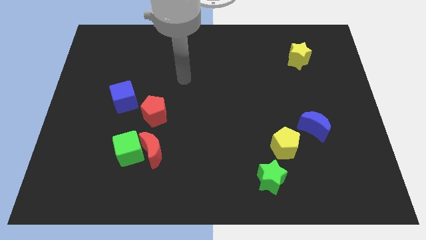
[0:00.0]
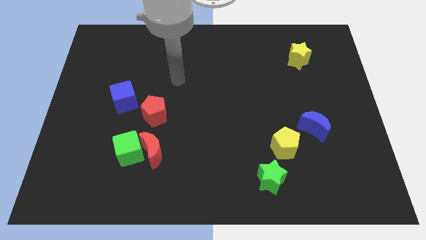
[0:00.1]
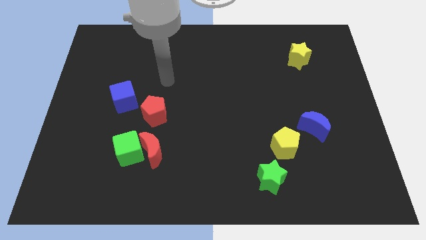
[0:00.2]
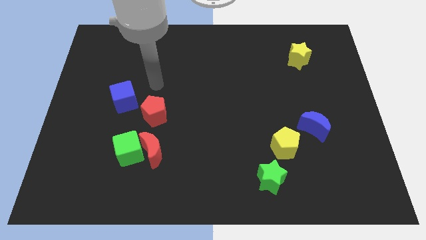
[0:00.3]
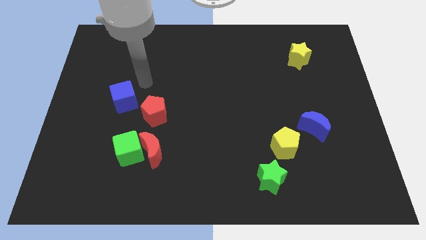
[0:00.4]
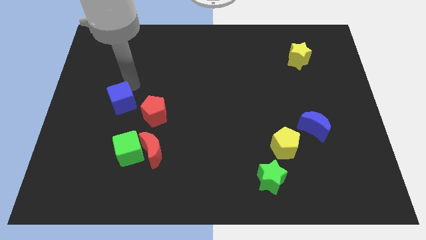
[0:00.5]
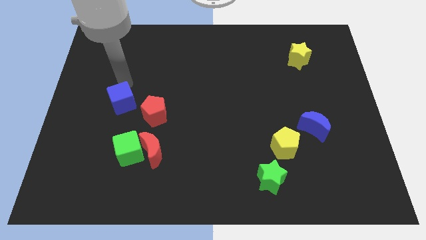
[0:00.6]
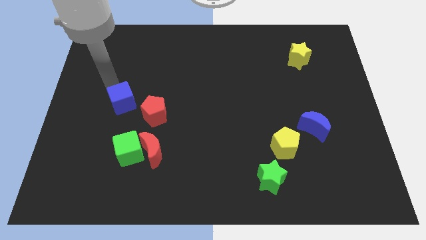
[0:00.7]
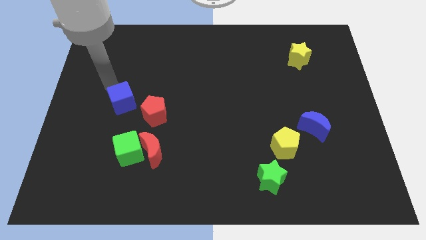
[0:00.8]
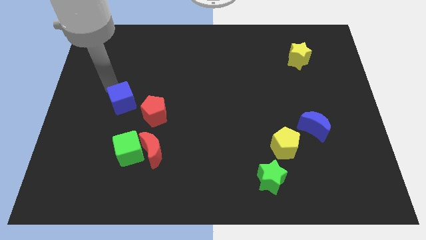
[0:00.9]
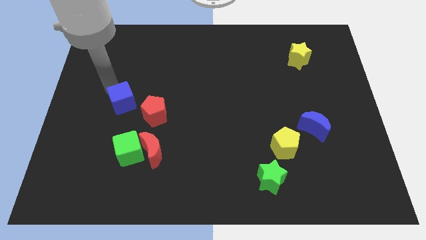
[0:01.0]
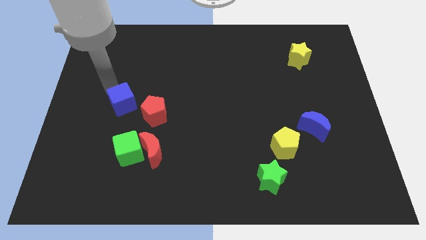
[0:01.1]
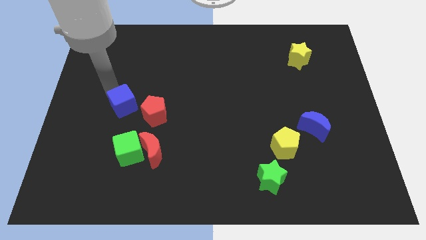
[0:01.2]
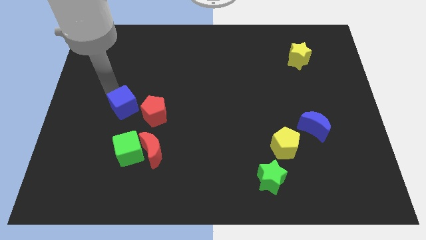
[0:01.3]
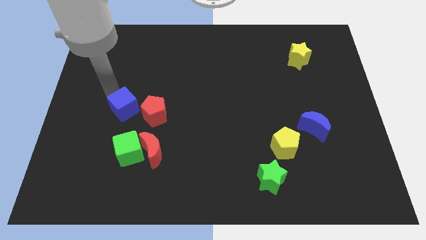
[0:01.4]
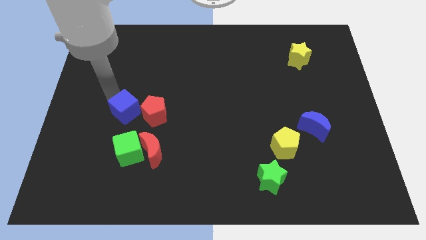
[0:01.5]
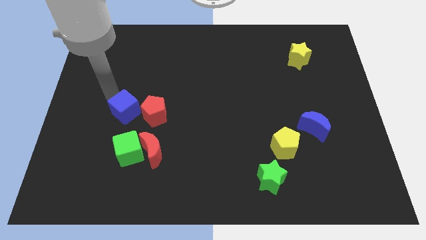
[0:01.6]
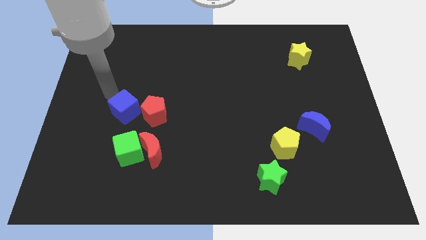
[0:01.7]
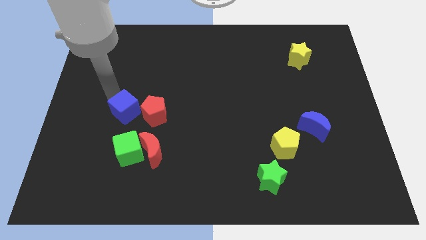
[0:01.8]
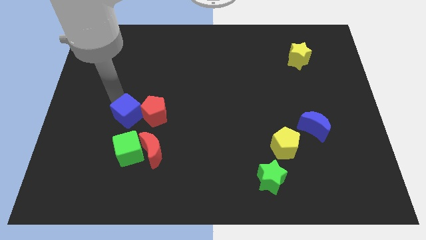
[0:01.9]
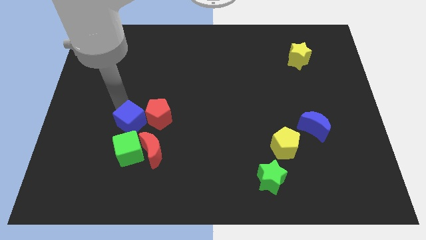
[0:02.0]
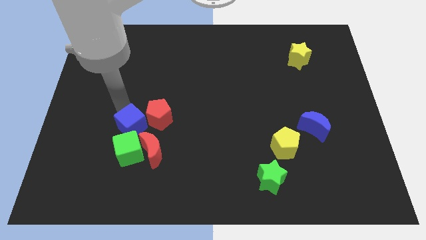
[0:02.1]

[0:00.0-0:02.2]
slightly push the blue cube downwards and to the right

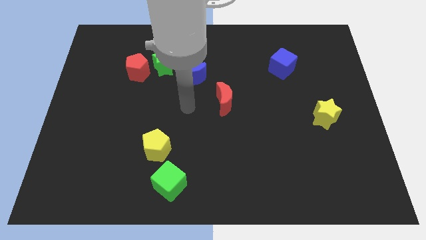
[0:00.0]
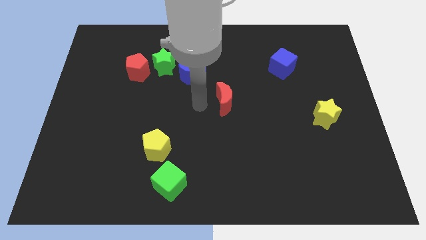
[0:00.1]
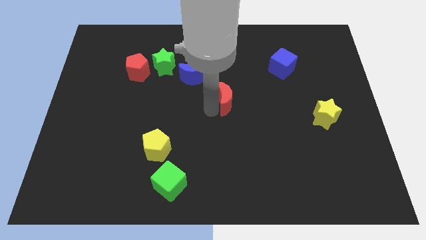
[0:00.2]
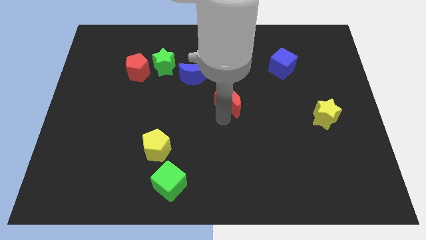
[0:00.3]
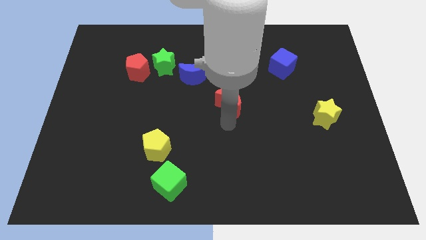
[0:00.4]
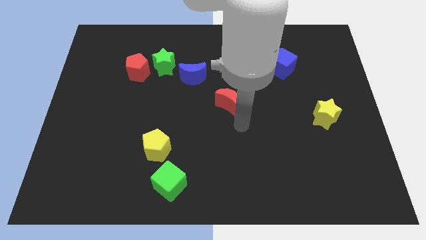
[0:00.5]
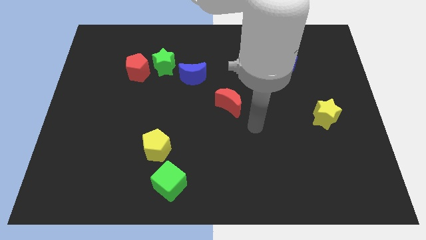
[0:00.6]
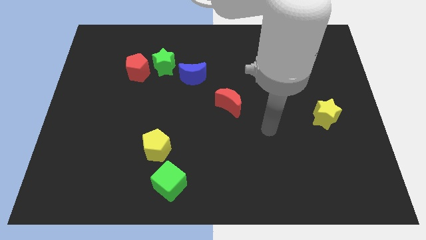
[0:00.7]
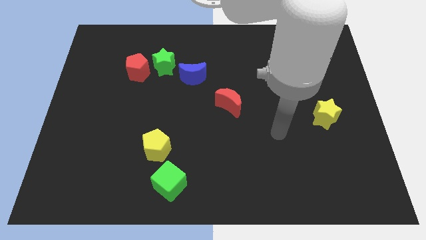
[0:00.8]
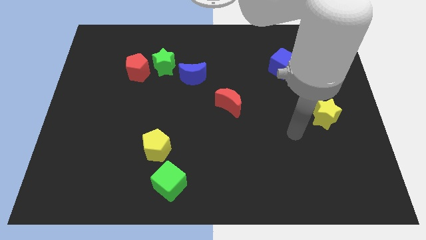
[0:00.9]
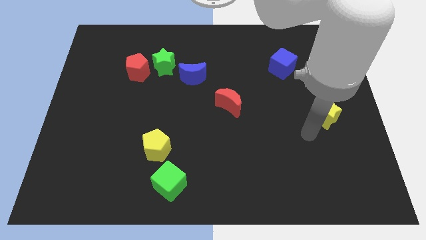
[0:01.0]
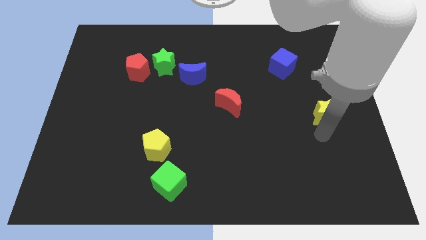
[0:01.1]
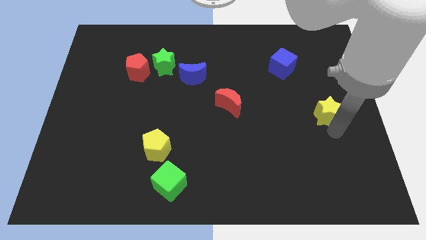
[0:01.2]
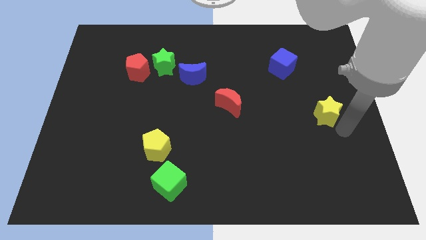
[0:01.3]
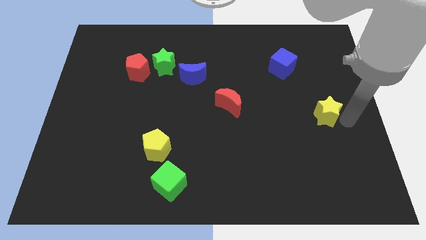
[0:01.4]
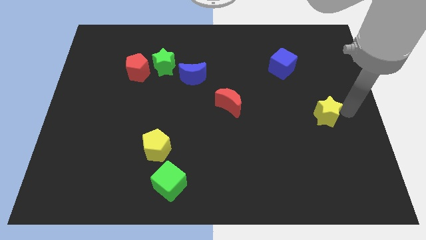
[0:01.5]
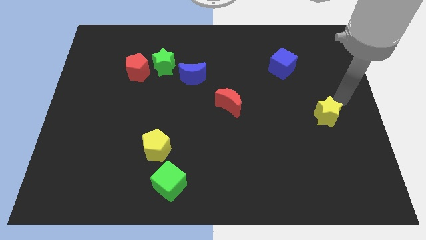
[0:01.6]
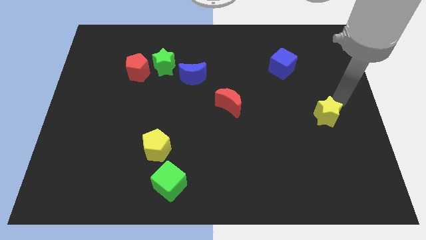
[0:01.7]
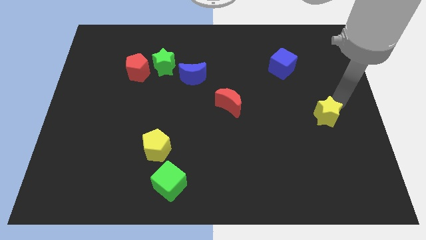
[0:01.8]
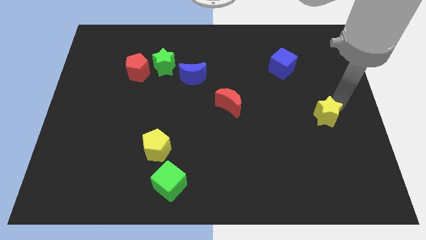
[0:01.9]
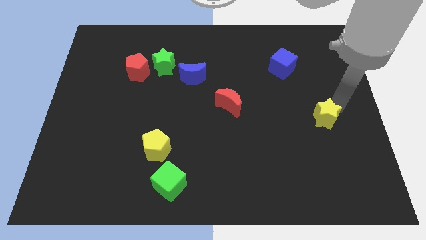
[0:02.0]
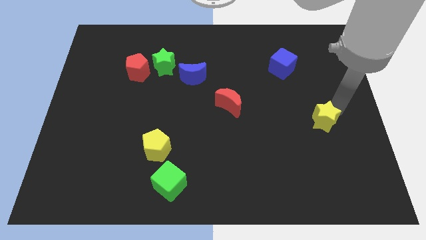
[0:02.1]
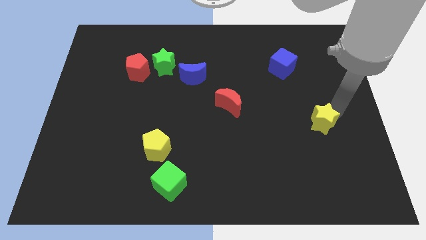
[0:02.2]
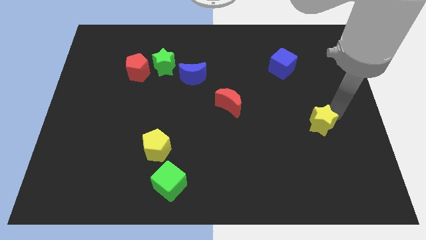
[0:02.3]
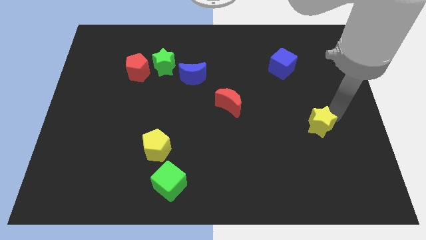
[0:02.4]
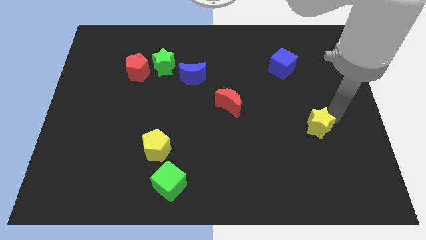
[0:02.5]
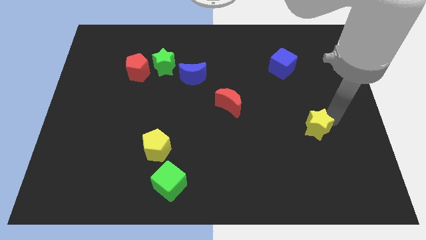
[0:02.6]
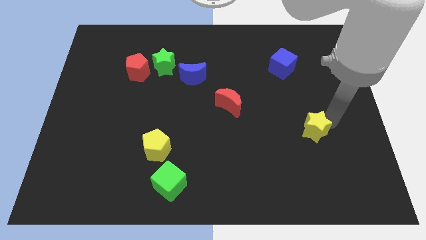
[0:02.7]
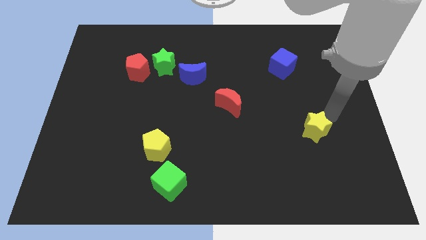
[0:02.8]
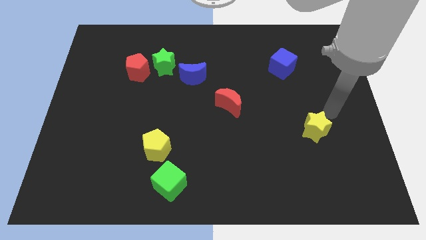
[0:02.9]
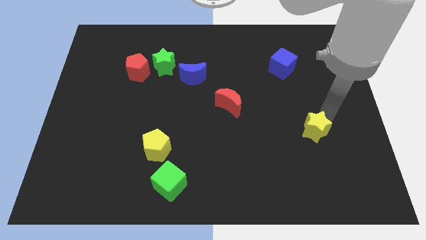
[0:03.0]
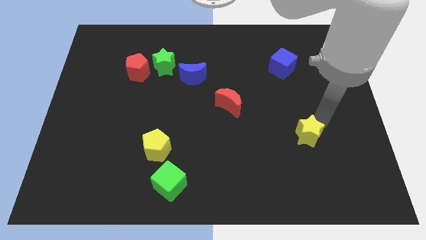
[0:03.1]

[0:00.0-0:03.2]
slightly slide the yellow star diagonally down and left

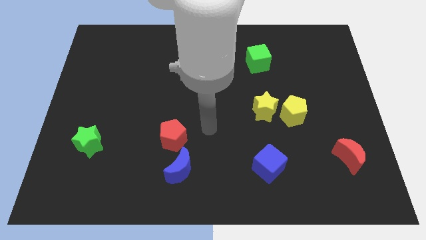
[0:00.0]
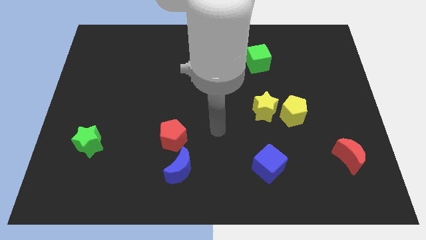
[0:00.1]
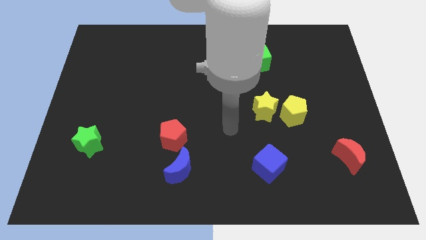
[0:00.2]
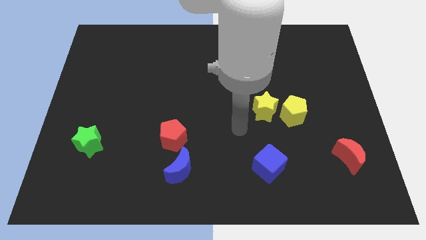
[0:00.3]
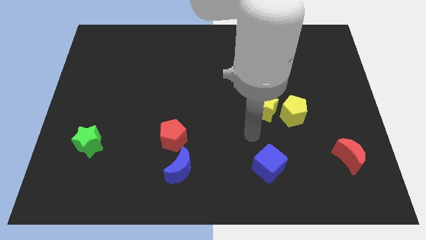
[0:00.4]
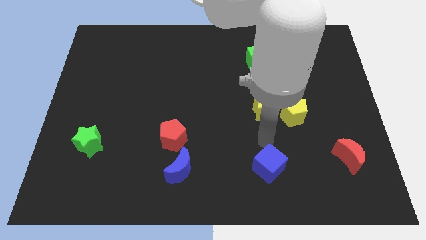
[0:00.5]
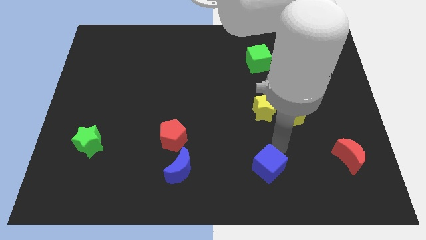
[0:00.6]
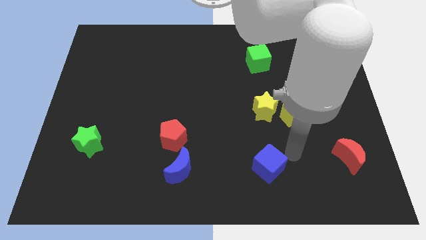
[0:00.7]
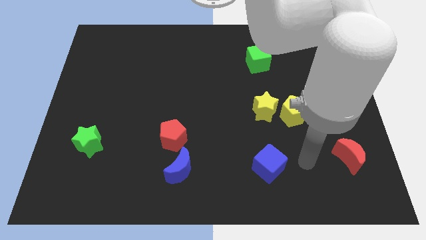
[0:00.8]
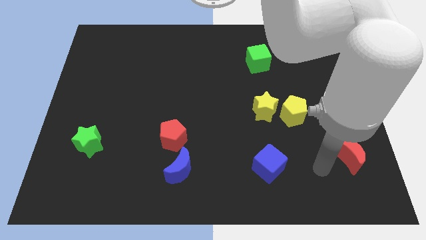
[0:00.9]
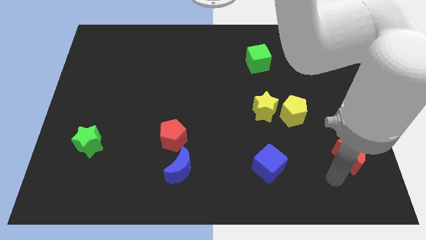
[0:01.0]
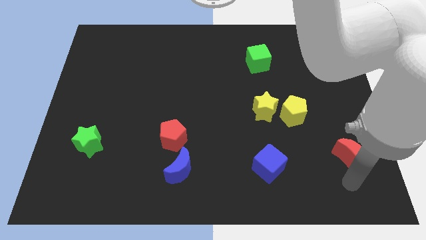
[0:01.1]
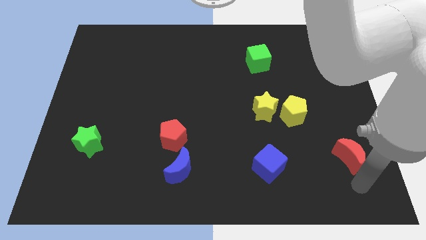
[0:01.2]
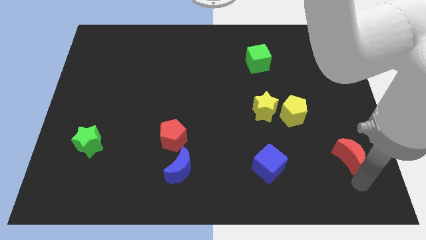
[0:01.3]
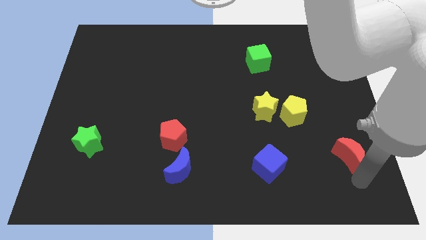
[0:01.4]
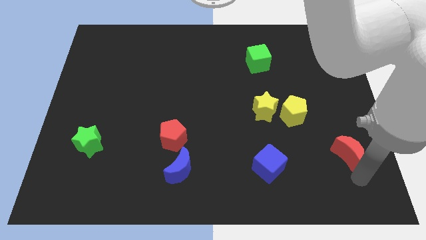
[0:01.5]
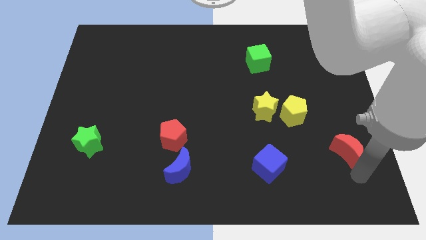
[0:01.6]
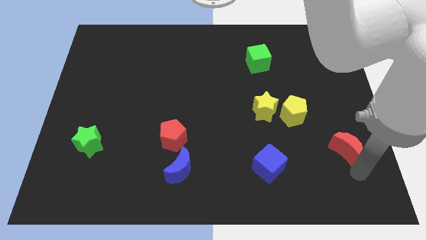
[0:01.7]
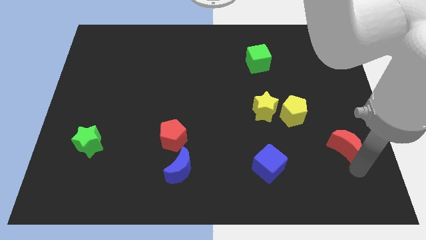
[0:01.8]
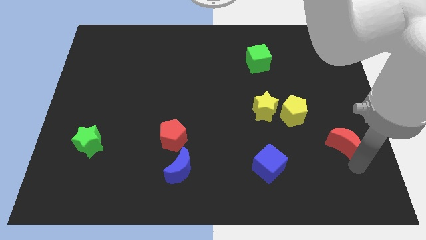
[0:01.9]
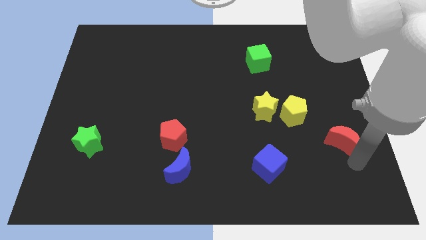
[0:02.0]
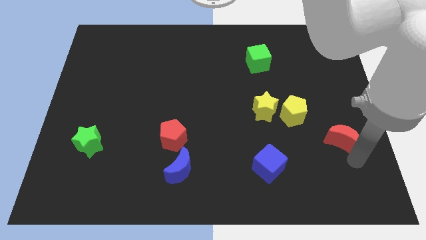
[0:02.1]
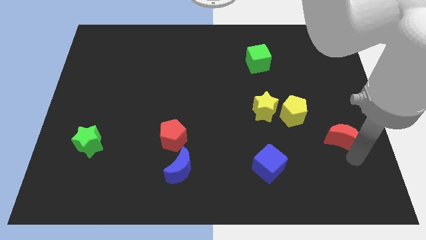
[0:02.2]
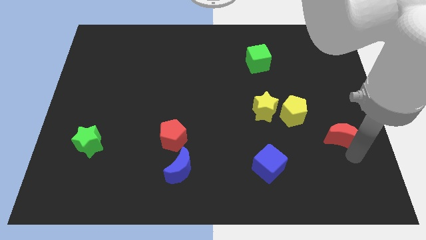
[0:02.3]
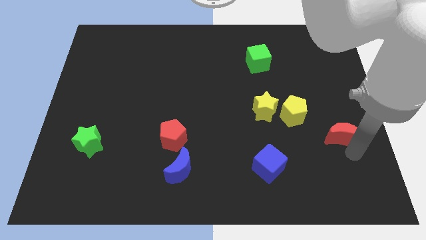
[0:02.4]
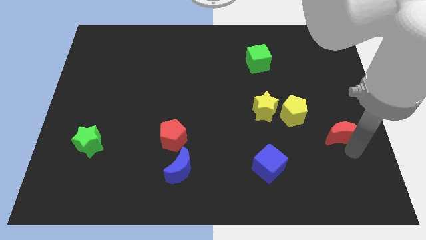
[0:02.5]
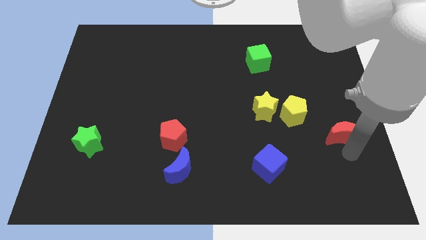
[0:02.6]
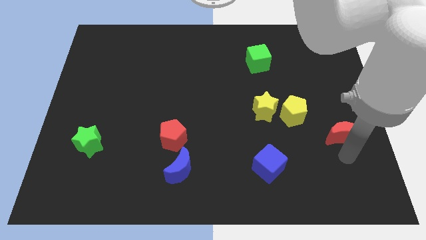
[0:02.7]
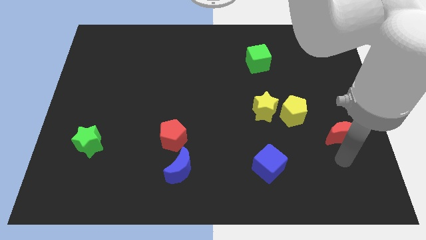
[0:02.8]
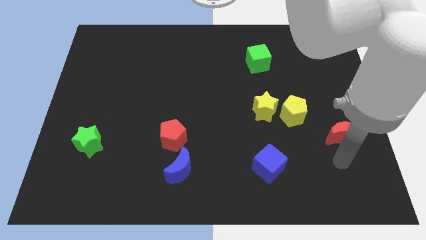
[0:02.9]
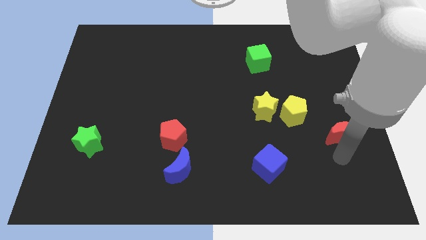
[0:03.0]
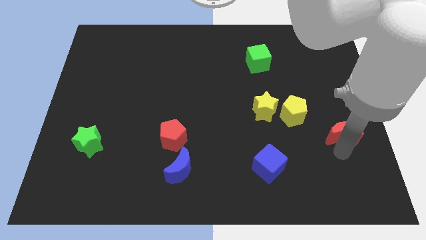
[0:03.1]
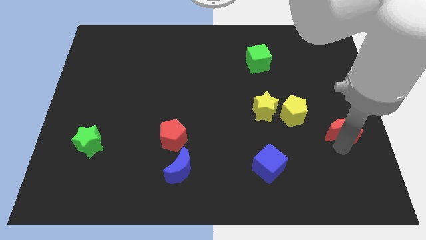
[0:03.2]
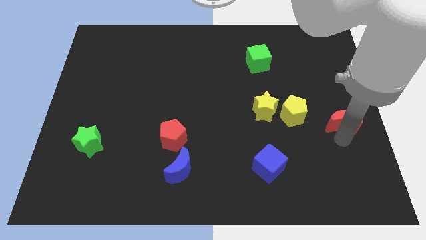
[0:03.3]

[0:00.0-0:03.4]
slightly slide the red moon upwards
